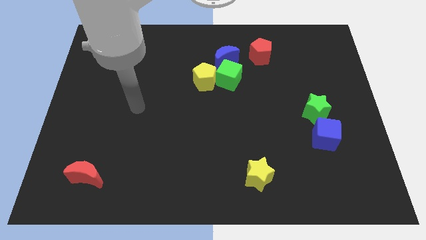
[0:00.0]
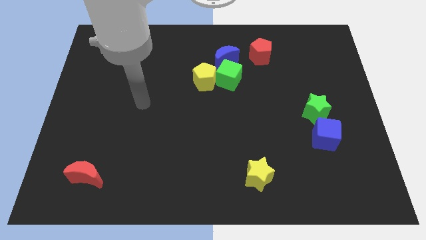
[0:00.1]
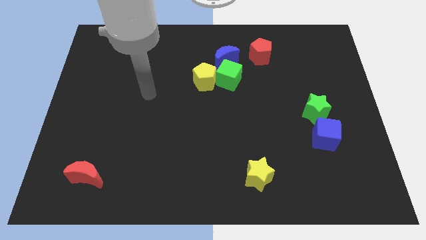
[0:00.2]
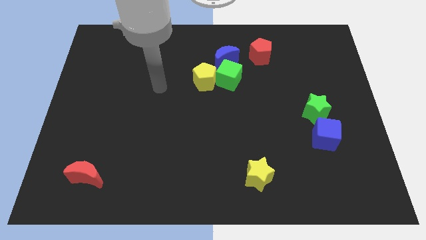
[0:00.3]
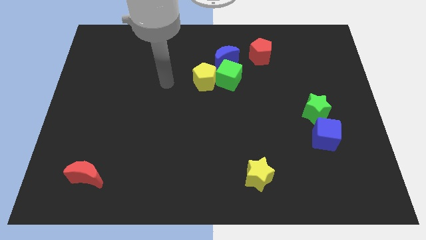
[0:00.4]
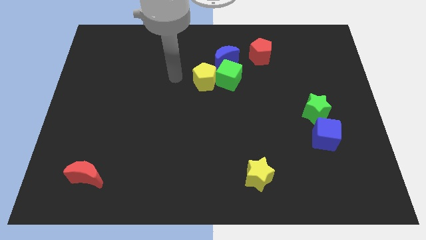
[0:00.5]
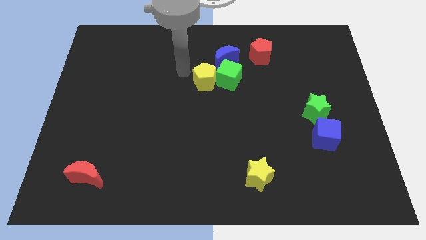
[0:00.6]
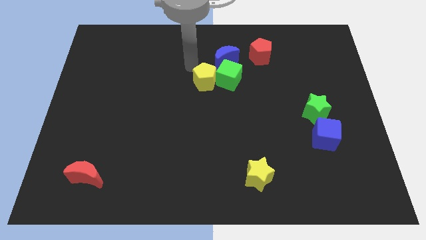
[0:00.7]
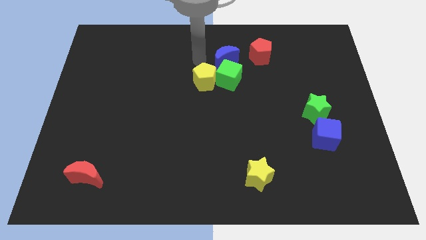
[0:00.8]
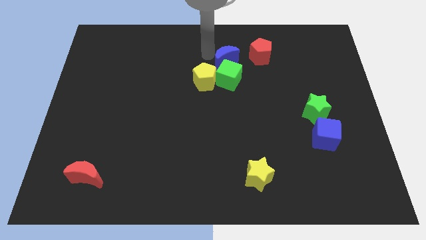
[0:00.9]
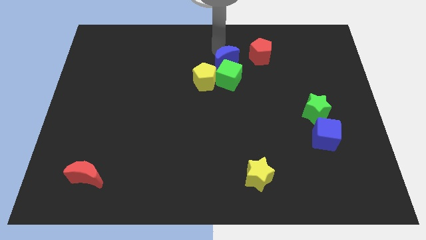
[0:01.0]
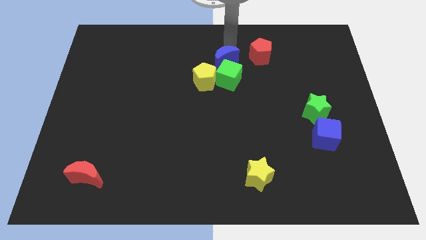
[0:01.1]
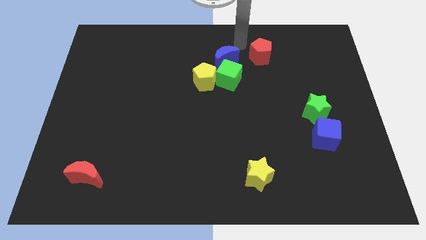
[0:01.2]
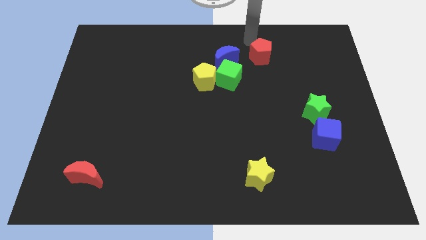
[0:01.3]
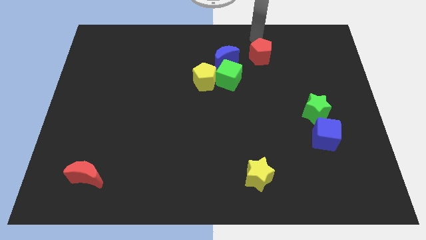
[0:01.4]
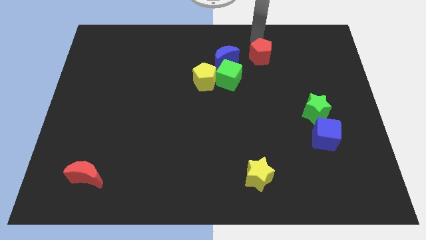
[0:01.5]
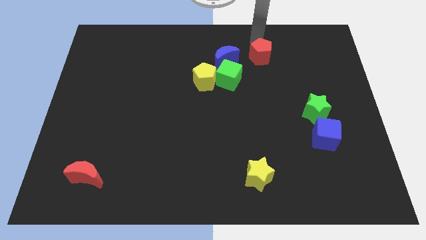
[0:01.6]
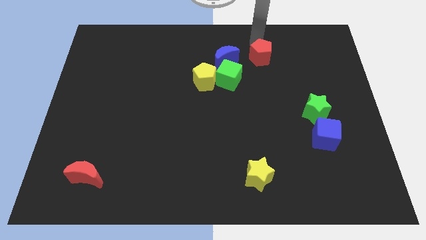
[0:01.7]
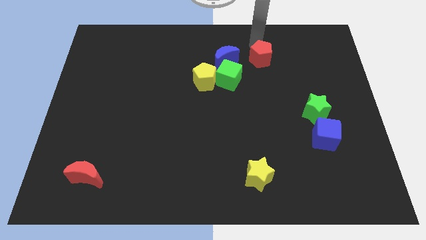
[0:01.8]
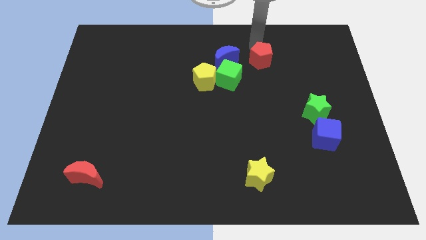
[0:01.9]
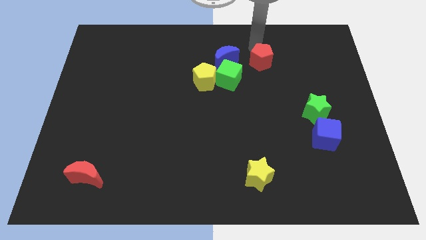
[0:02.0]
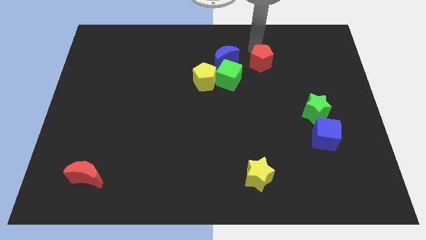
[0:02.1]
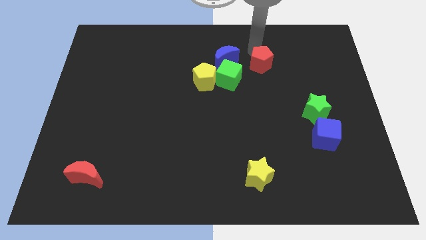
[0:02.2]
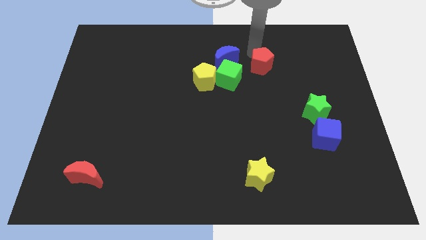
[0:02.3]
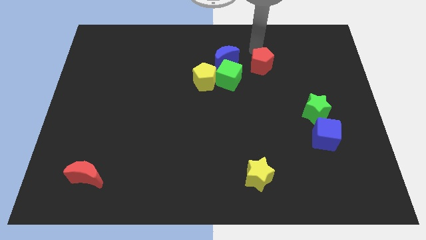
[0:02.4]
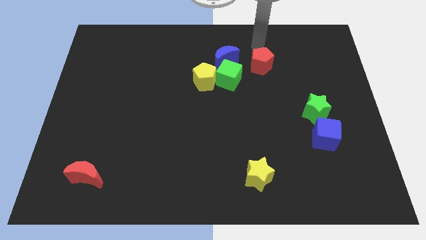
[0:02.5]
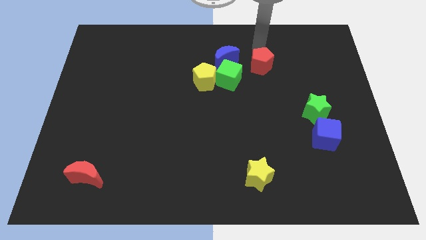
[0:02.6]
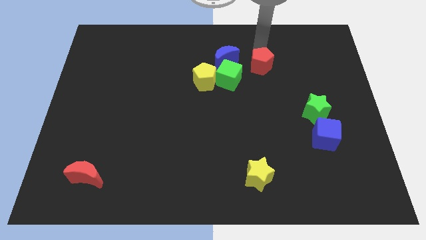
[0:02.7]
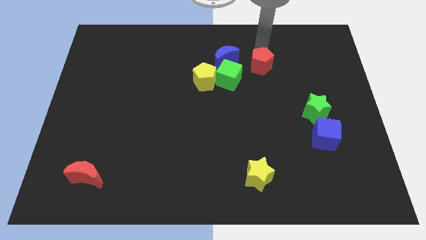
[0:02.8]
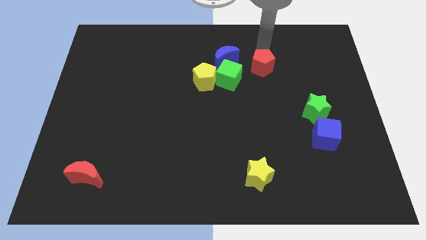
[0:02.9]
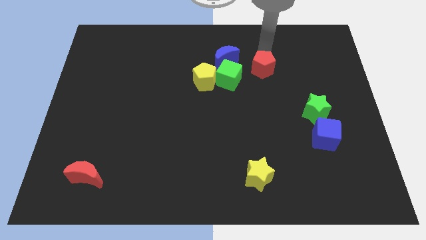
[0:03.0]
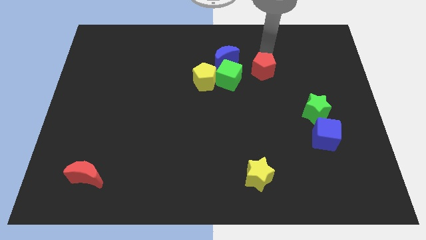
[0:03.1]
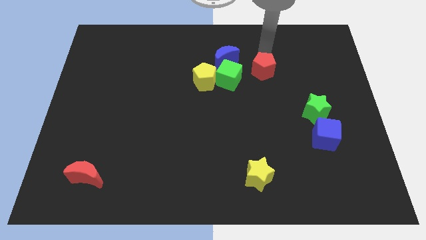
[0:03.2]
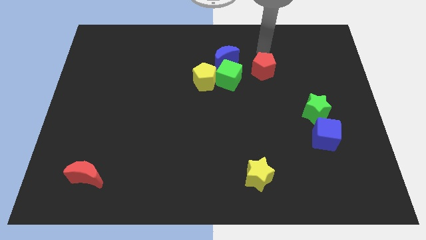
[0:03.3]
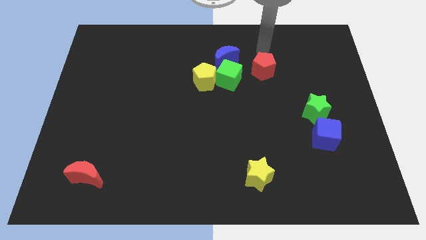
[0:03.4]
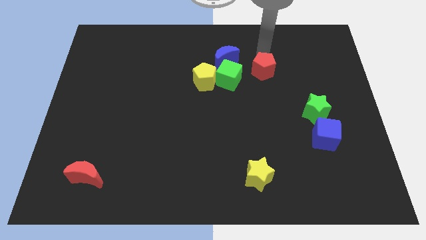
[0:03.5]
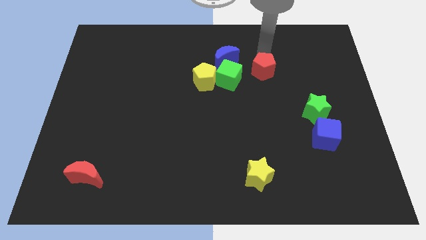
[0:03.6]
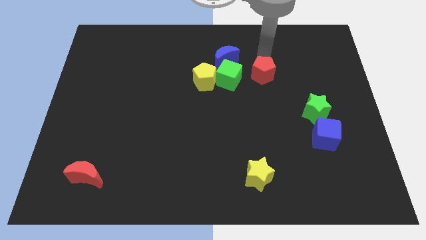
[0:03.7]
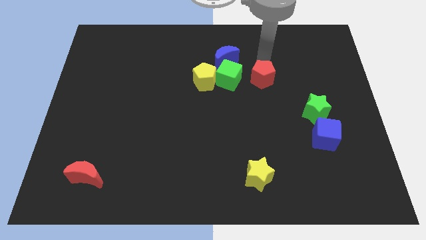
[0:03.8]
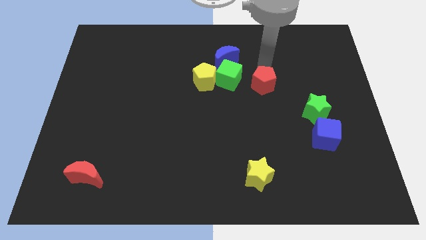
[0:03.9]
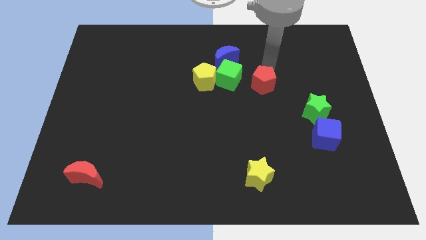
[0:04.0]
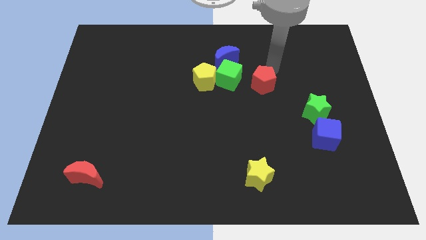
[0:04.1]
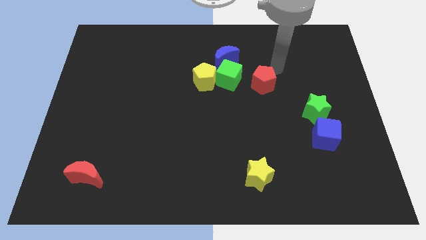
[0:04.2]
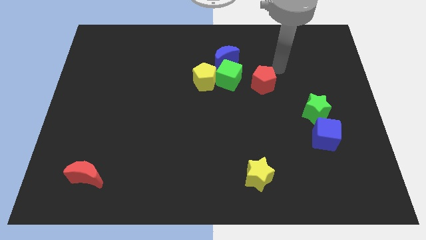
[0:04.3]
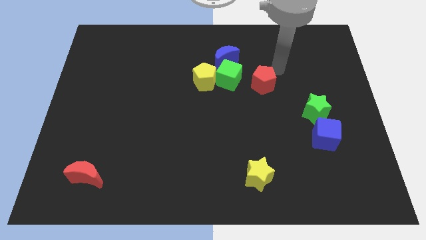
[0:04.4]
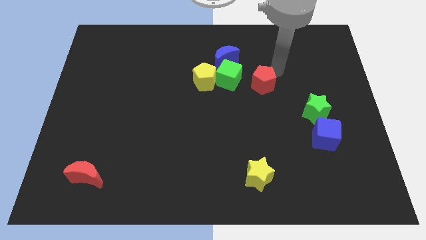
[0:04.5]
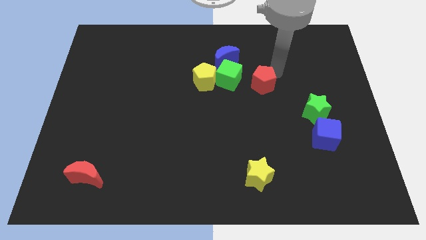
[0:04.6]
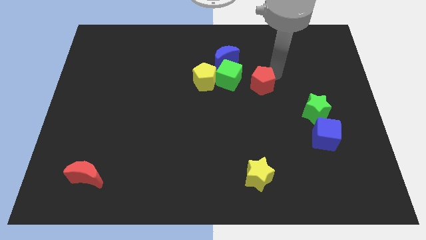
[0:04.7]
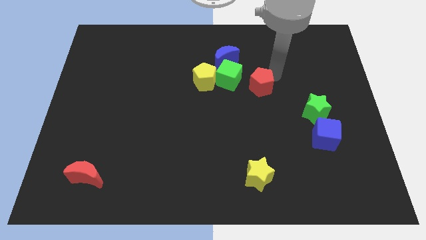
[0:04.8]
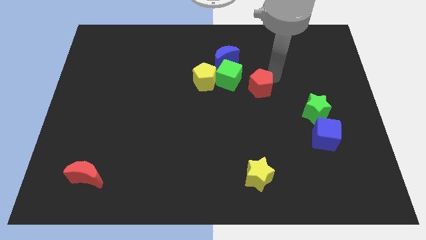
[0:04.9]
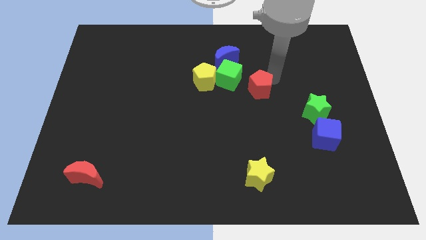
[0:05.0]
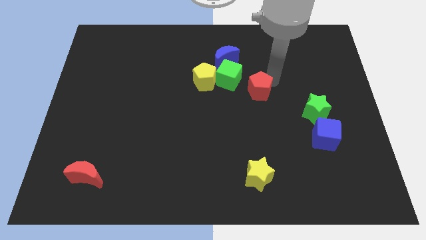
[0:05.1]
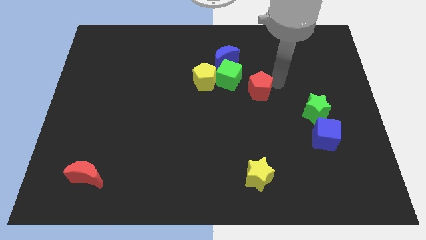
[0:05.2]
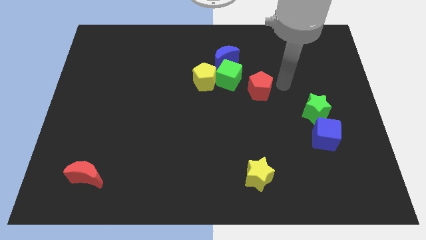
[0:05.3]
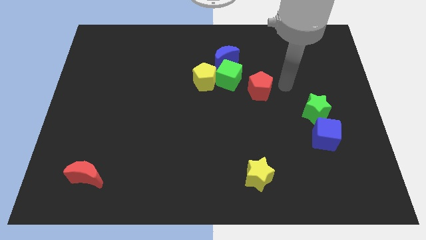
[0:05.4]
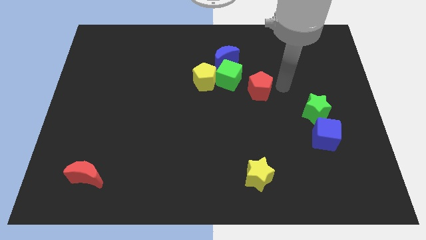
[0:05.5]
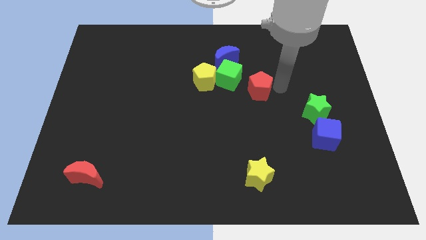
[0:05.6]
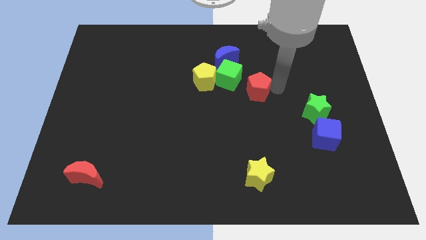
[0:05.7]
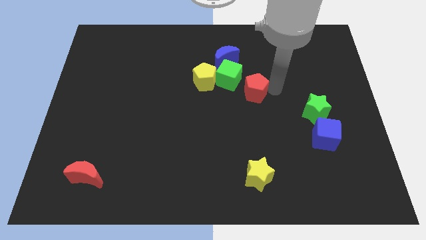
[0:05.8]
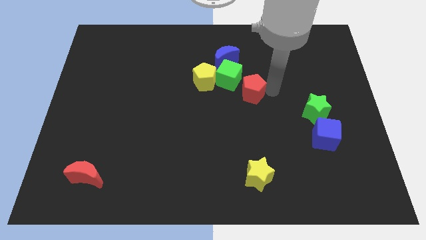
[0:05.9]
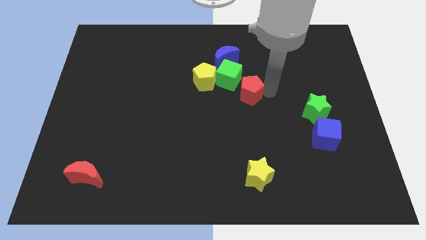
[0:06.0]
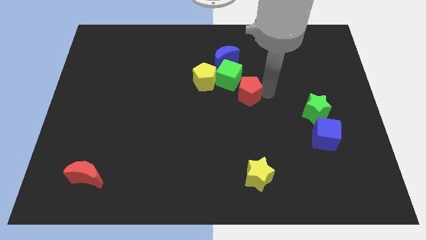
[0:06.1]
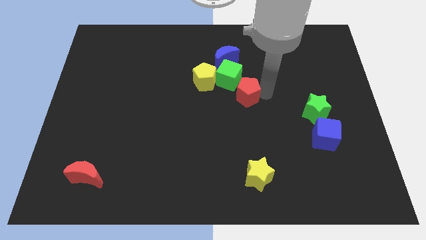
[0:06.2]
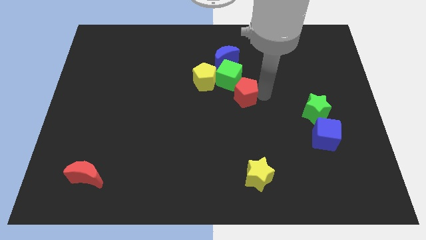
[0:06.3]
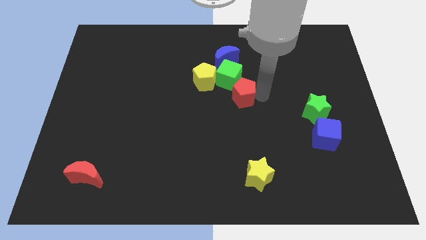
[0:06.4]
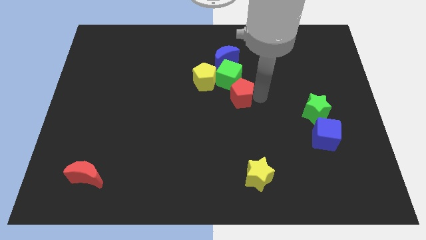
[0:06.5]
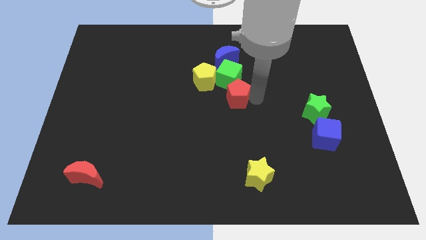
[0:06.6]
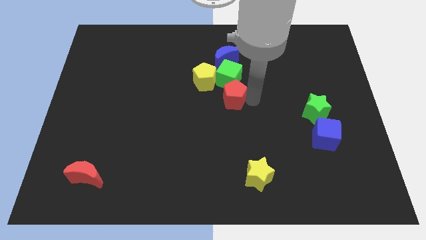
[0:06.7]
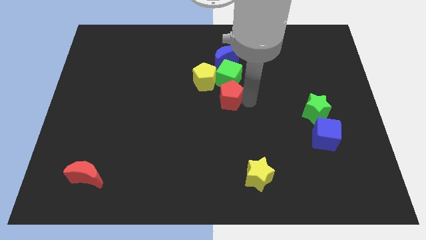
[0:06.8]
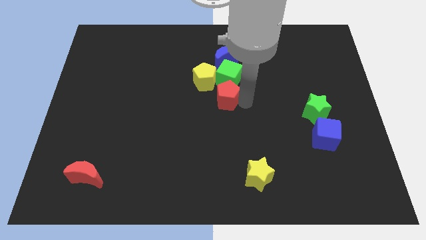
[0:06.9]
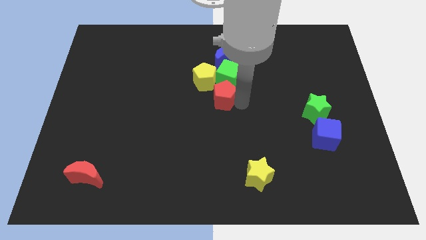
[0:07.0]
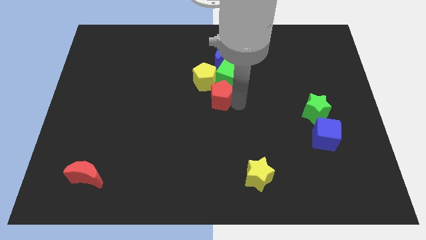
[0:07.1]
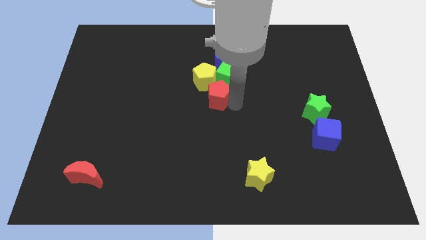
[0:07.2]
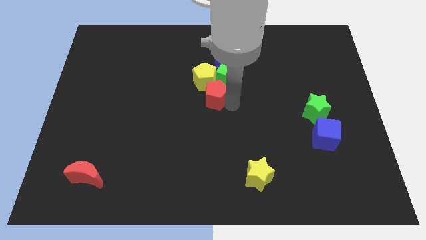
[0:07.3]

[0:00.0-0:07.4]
put the red pentagon next to the yellow pentagon
